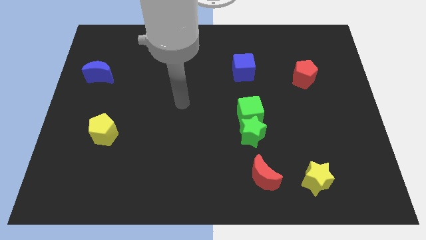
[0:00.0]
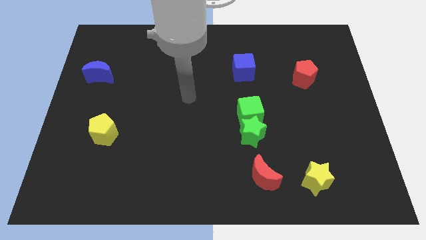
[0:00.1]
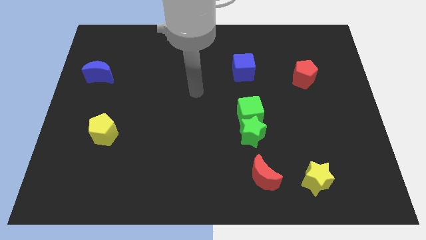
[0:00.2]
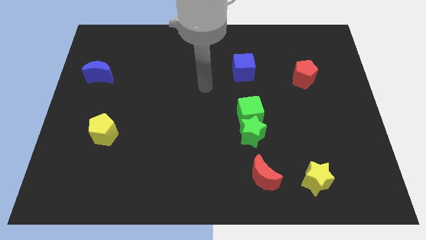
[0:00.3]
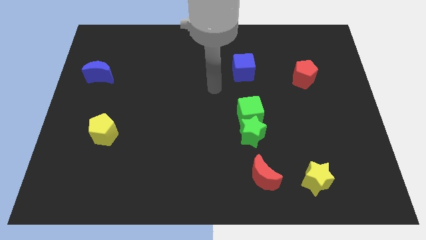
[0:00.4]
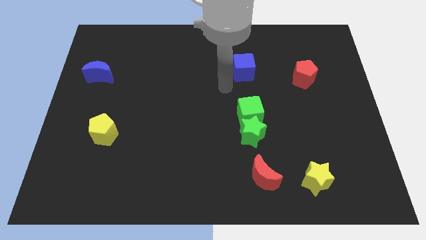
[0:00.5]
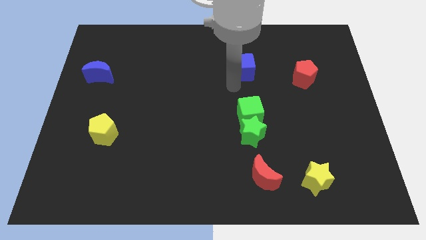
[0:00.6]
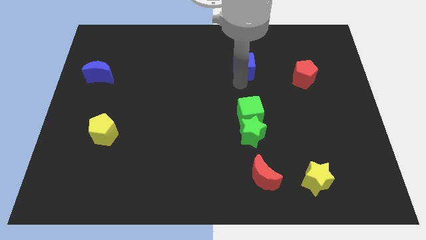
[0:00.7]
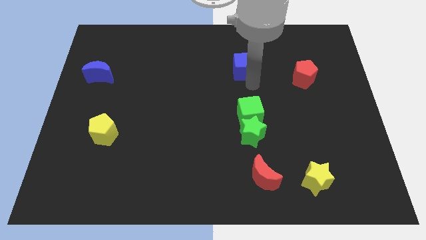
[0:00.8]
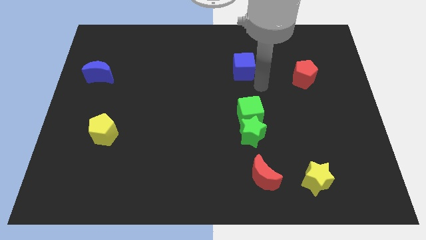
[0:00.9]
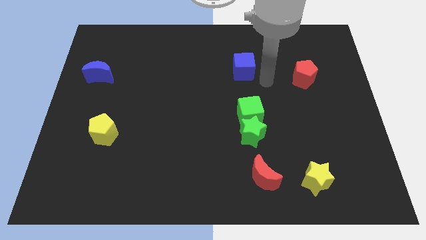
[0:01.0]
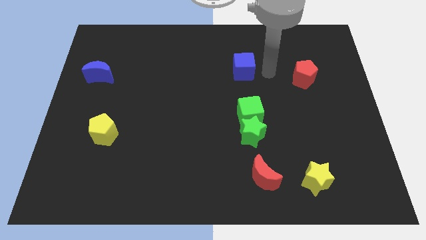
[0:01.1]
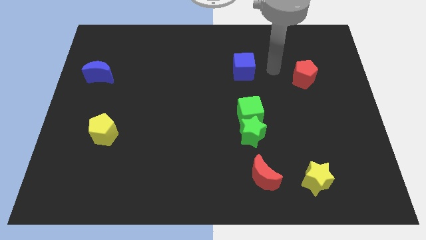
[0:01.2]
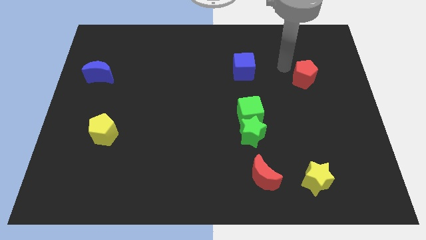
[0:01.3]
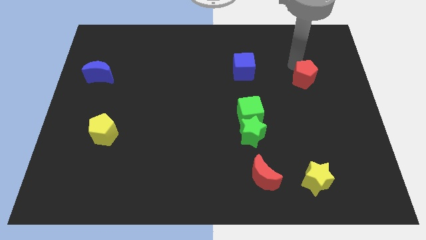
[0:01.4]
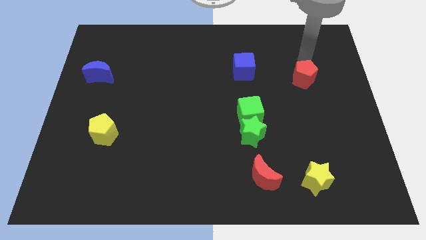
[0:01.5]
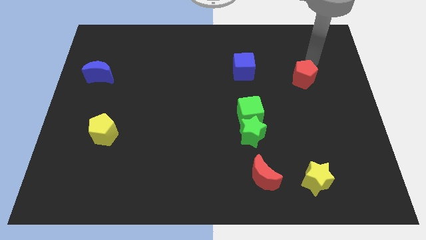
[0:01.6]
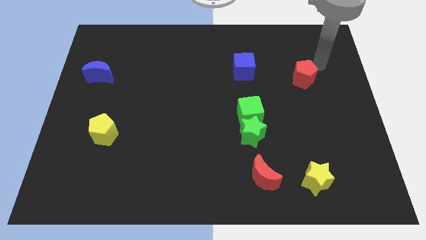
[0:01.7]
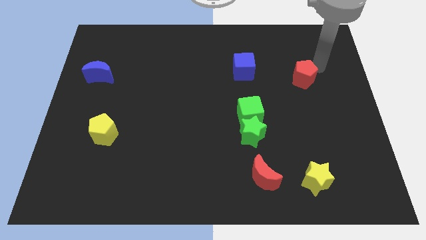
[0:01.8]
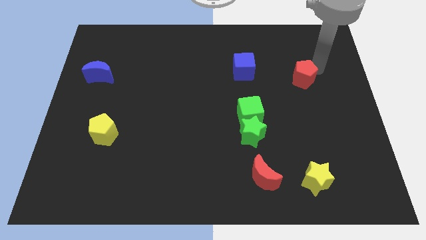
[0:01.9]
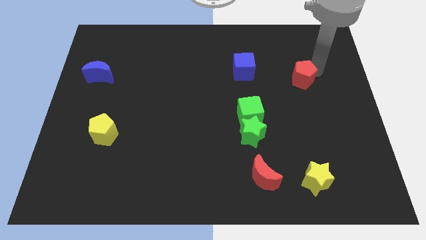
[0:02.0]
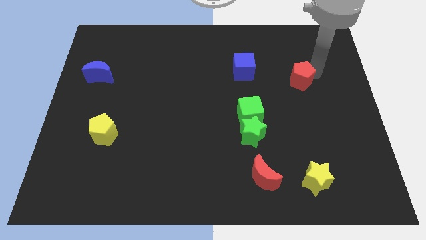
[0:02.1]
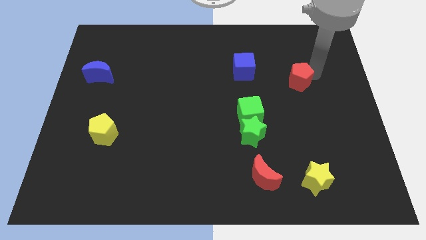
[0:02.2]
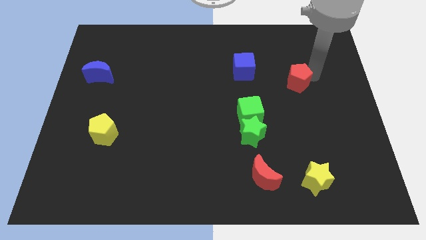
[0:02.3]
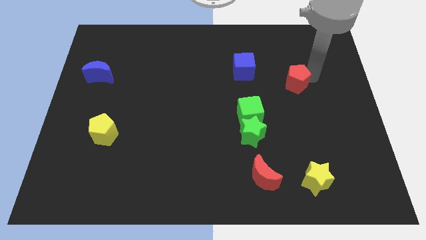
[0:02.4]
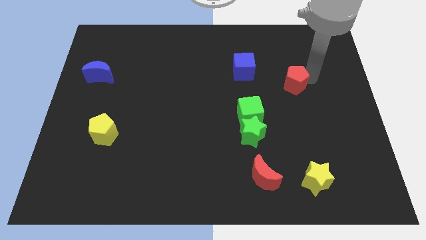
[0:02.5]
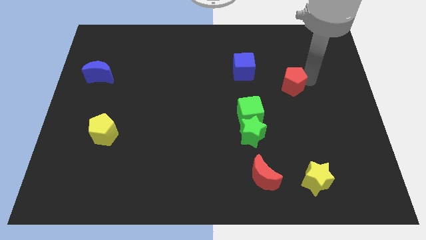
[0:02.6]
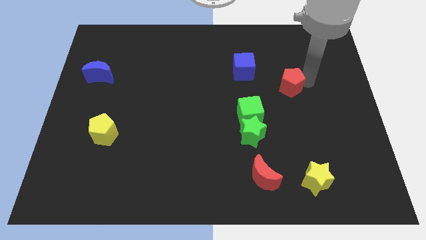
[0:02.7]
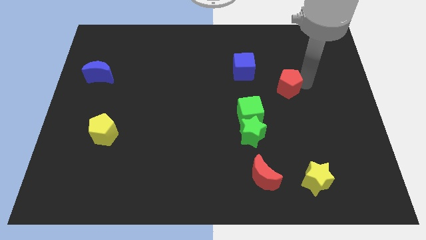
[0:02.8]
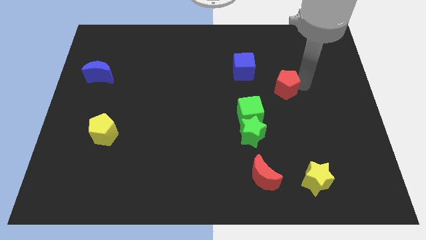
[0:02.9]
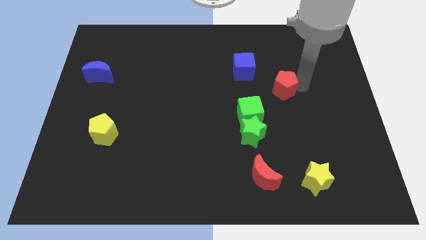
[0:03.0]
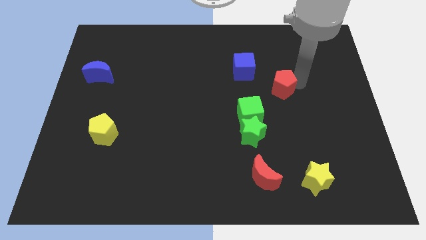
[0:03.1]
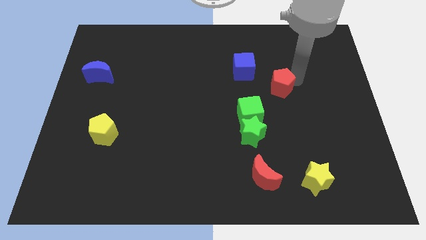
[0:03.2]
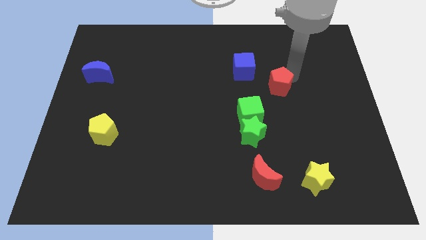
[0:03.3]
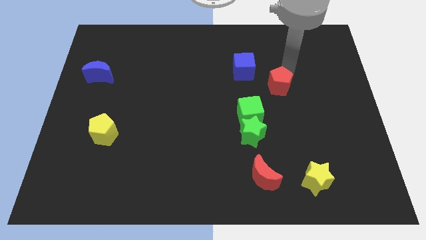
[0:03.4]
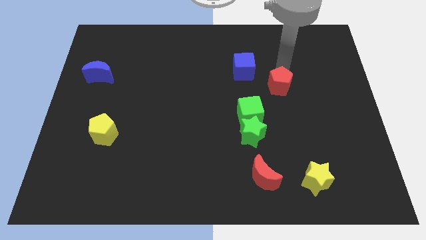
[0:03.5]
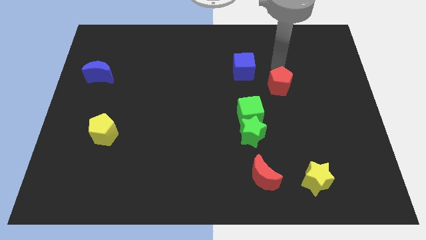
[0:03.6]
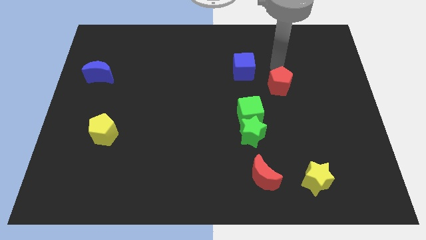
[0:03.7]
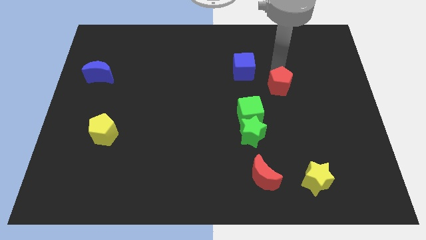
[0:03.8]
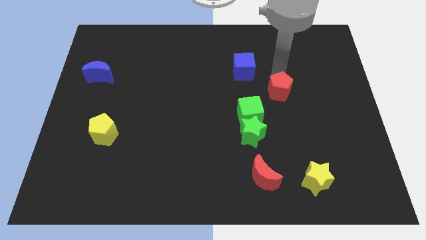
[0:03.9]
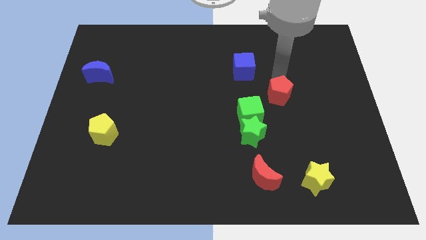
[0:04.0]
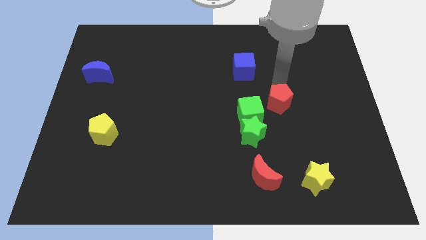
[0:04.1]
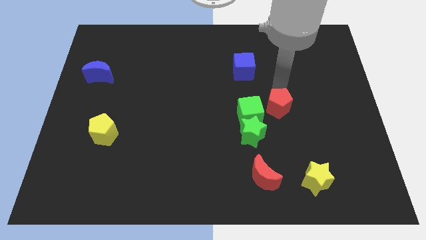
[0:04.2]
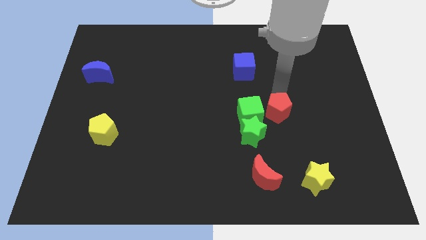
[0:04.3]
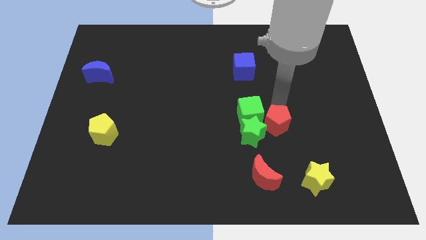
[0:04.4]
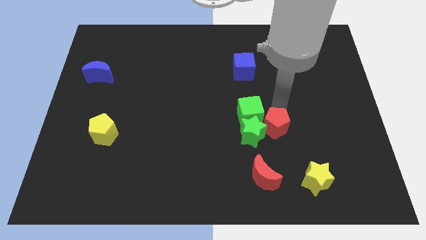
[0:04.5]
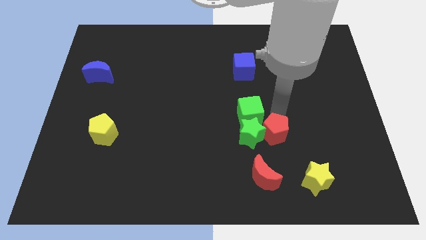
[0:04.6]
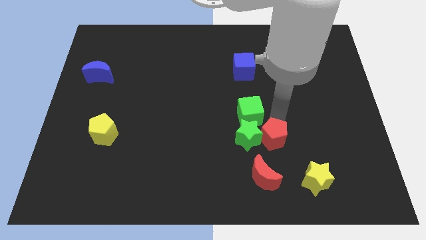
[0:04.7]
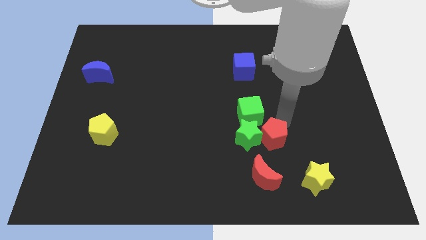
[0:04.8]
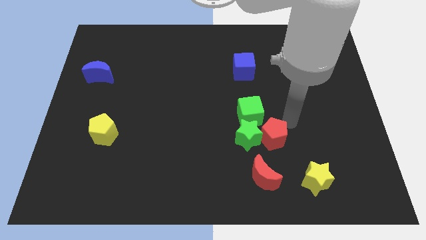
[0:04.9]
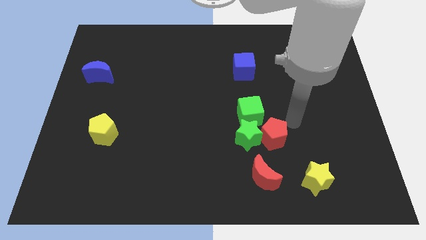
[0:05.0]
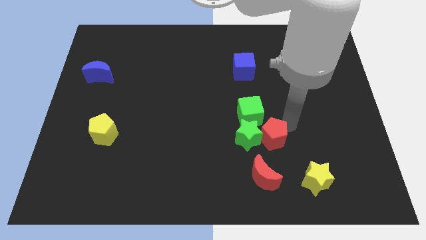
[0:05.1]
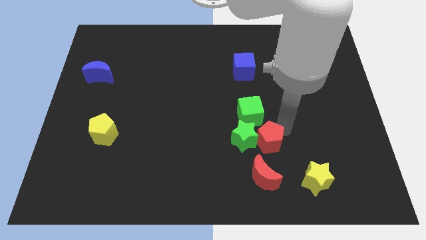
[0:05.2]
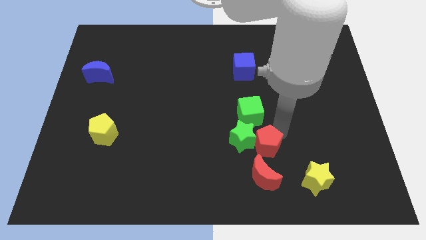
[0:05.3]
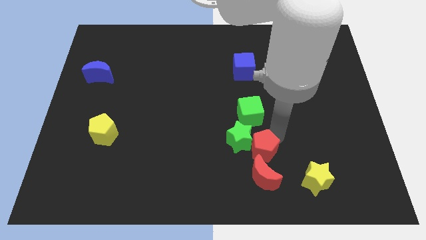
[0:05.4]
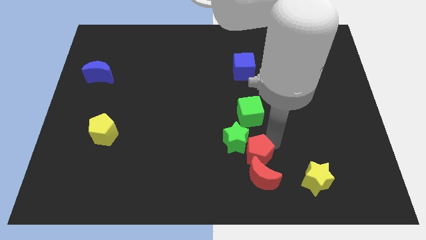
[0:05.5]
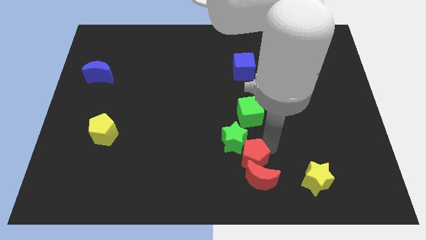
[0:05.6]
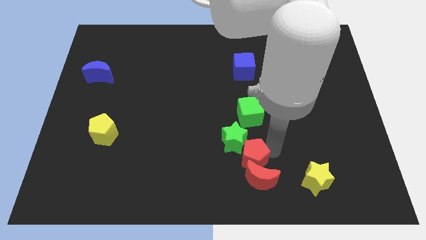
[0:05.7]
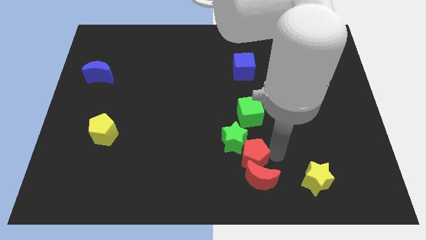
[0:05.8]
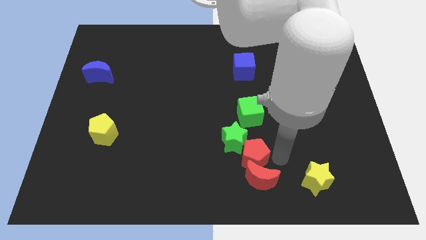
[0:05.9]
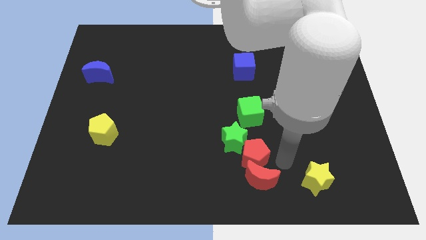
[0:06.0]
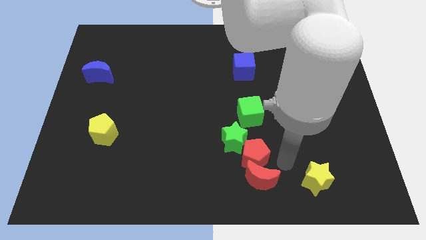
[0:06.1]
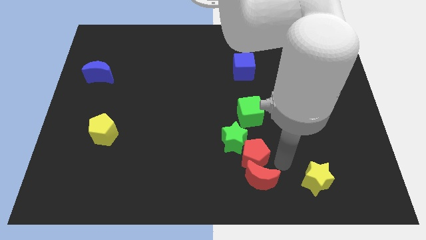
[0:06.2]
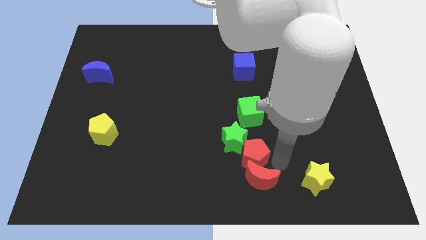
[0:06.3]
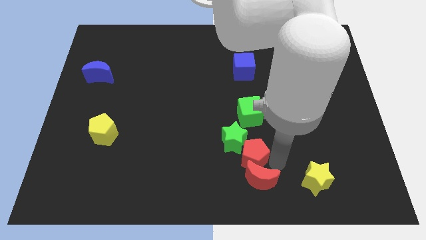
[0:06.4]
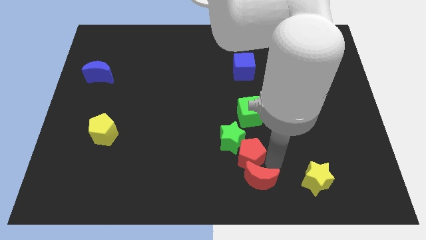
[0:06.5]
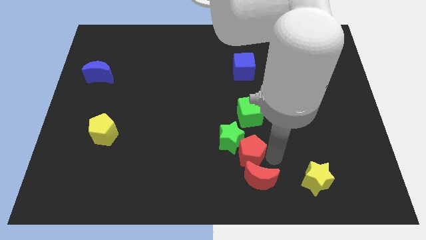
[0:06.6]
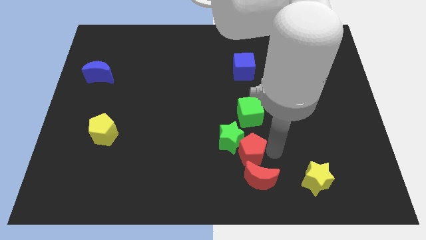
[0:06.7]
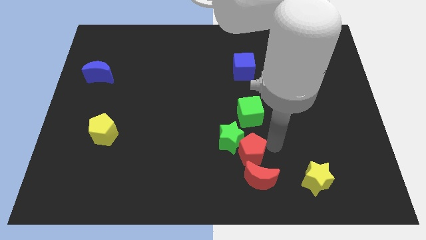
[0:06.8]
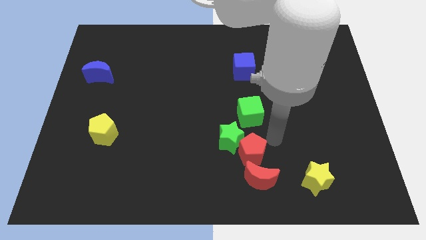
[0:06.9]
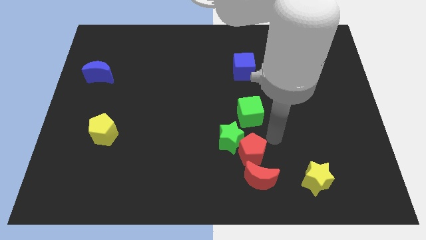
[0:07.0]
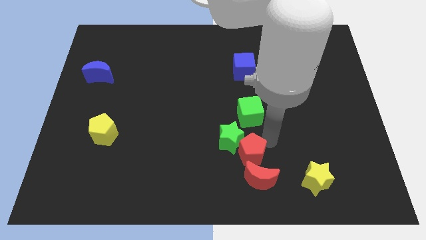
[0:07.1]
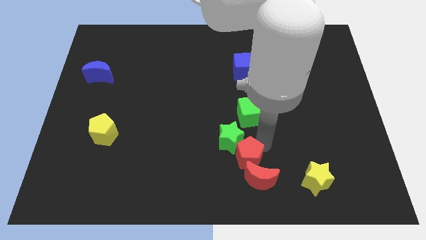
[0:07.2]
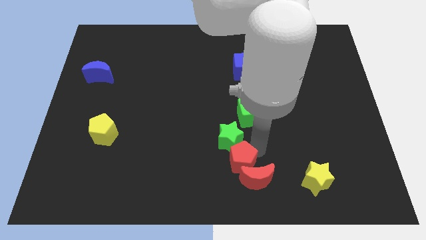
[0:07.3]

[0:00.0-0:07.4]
move the red pentagon to the bottom
